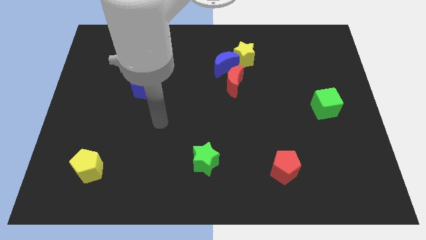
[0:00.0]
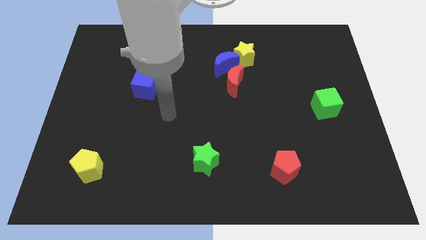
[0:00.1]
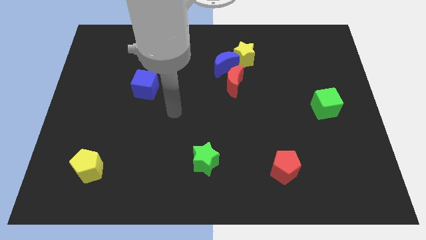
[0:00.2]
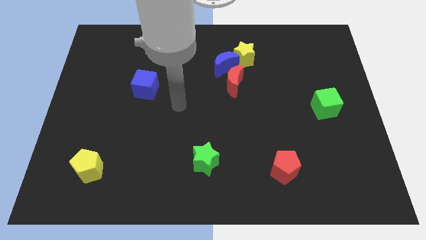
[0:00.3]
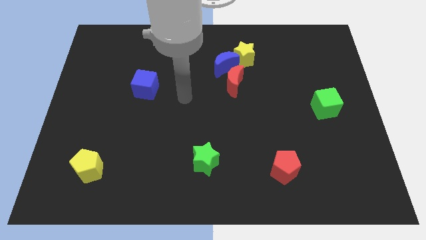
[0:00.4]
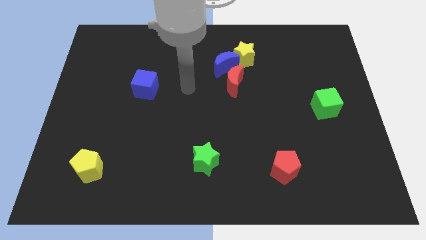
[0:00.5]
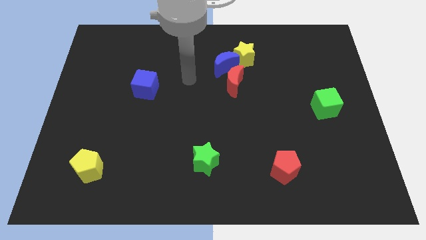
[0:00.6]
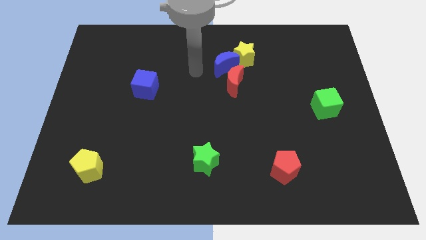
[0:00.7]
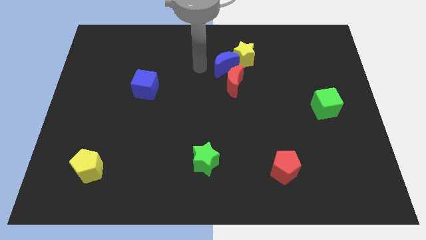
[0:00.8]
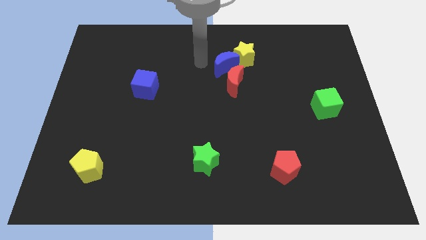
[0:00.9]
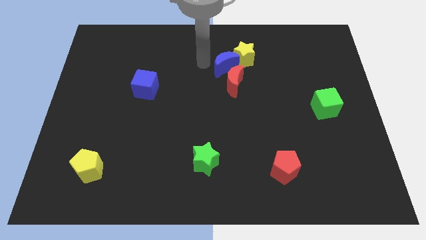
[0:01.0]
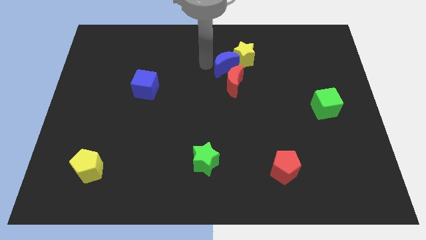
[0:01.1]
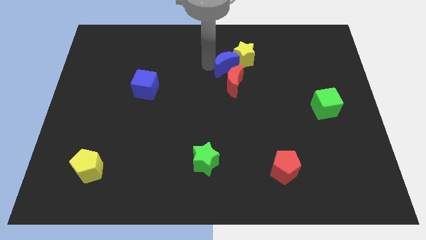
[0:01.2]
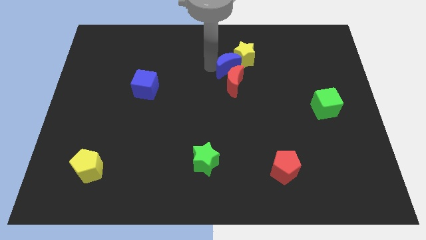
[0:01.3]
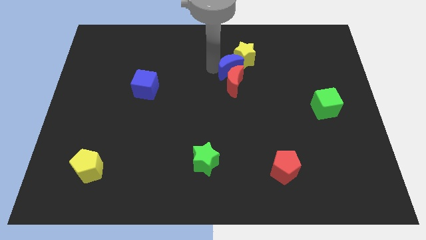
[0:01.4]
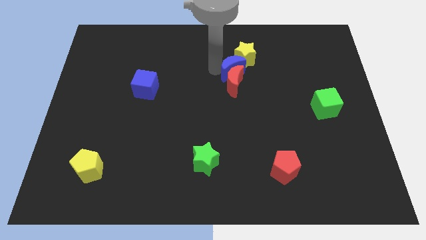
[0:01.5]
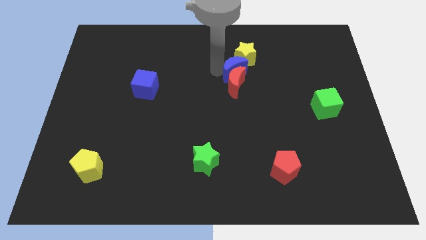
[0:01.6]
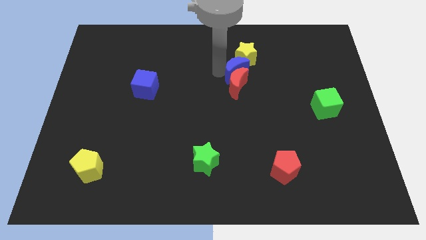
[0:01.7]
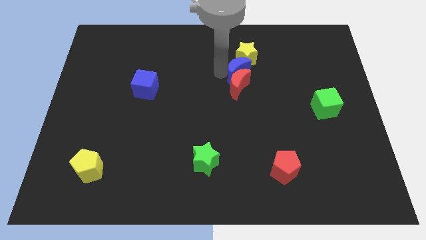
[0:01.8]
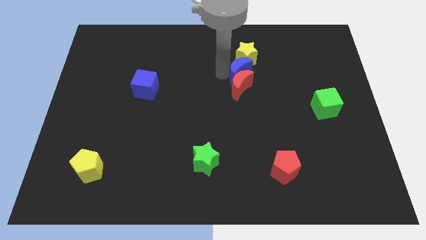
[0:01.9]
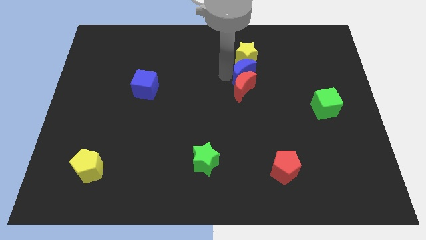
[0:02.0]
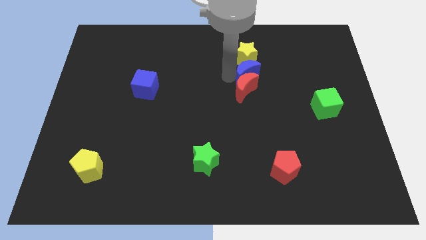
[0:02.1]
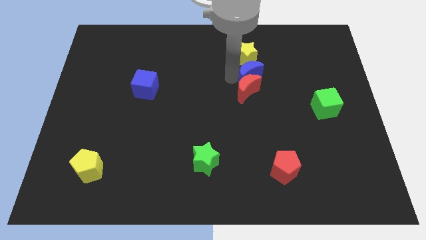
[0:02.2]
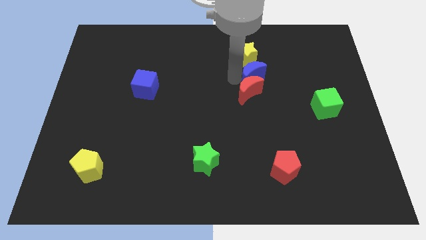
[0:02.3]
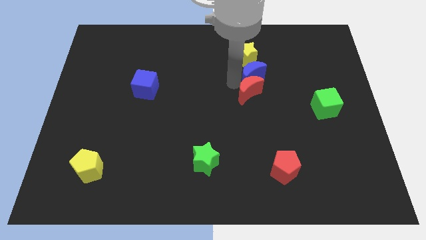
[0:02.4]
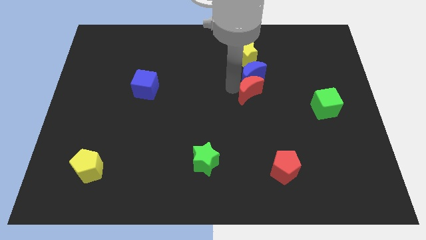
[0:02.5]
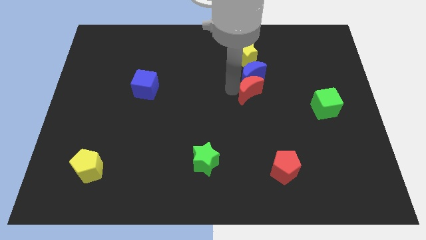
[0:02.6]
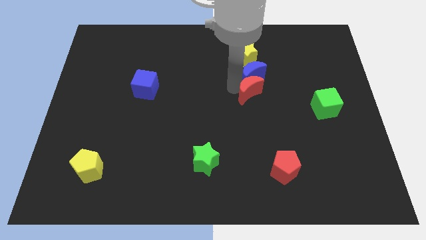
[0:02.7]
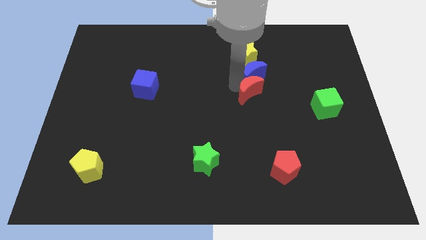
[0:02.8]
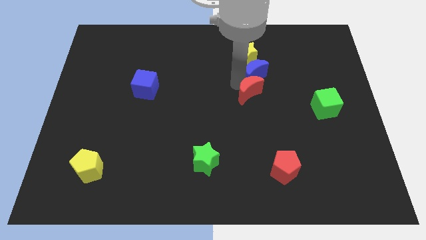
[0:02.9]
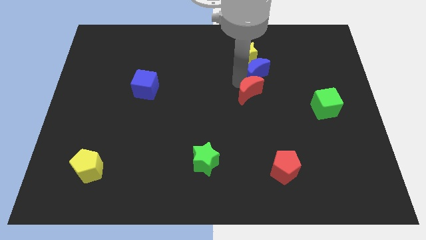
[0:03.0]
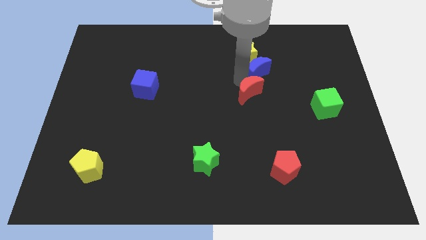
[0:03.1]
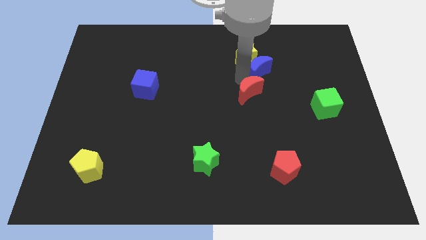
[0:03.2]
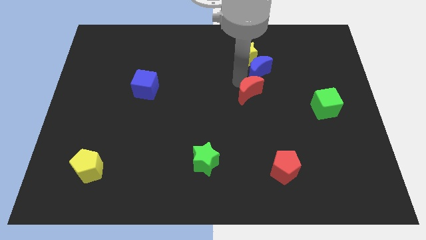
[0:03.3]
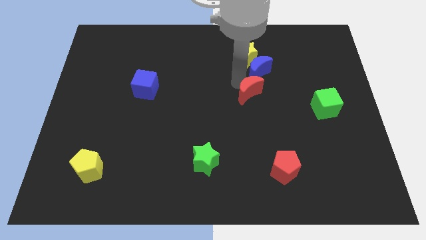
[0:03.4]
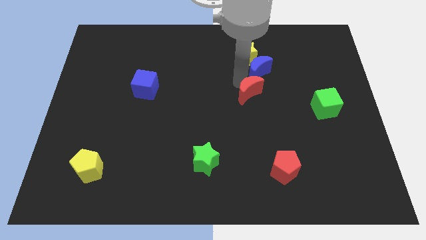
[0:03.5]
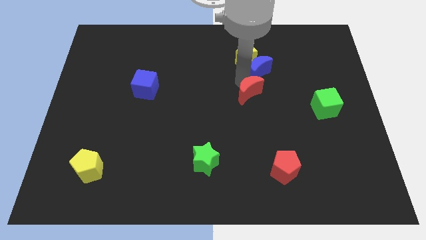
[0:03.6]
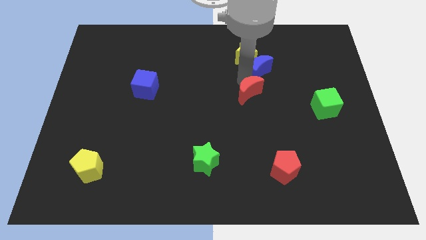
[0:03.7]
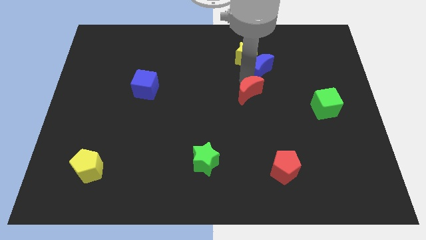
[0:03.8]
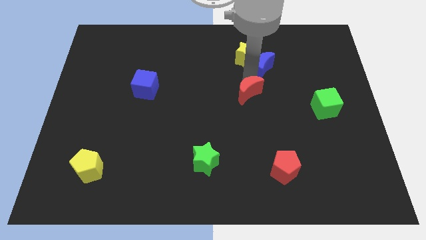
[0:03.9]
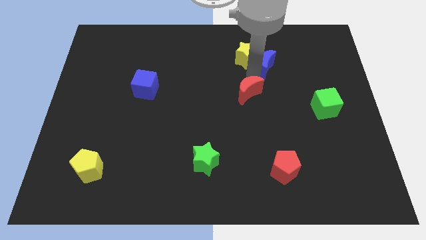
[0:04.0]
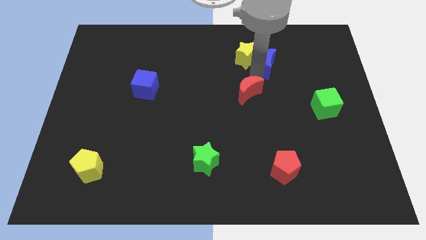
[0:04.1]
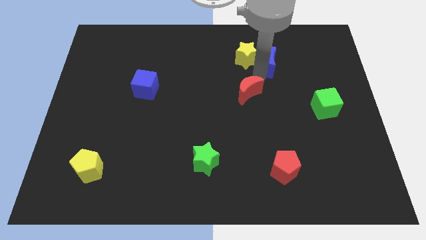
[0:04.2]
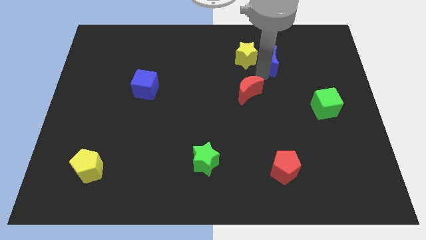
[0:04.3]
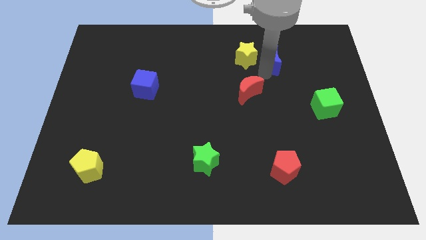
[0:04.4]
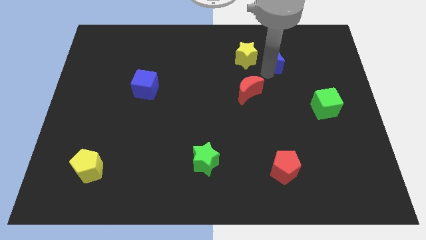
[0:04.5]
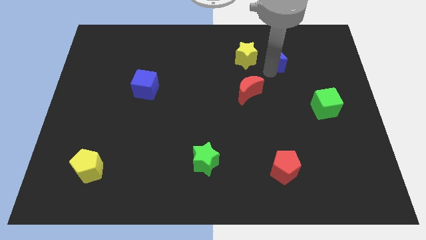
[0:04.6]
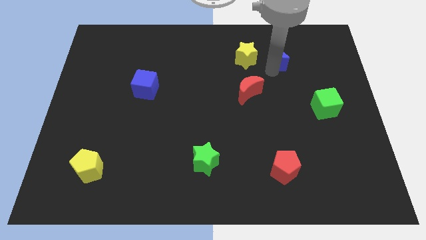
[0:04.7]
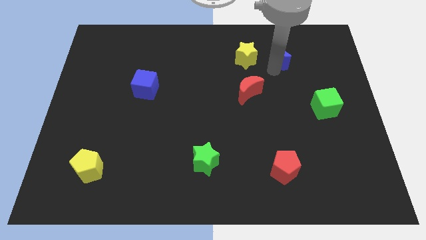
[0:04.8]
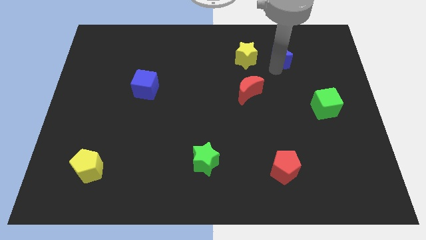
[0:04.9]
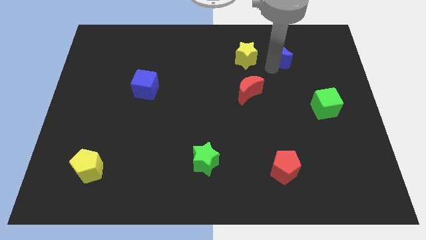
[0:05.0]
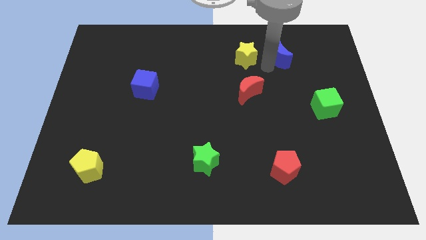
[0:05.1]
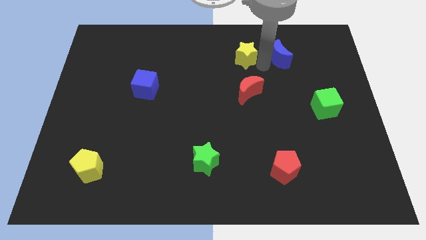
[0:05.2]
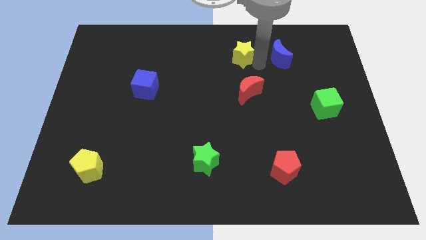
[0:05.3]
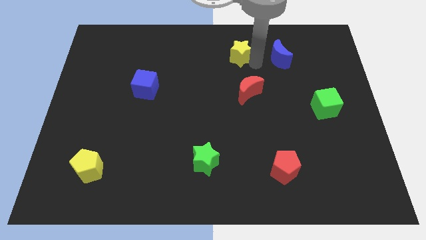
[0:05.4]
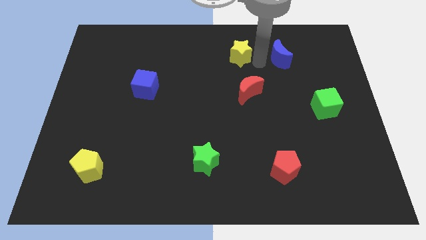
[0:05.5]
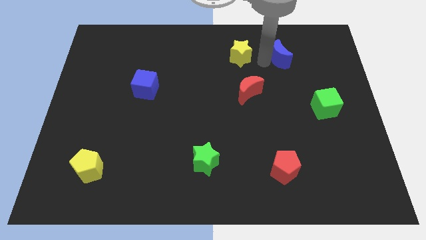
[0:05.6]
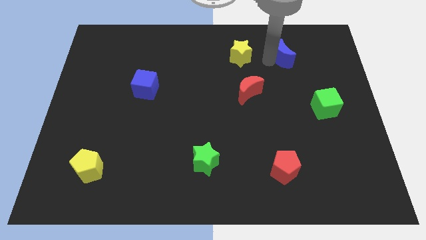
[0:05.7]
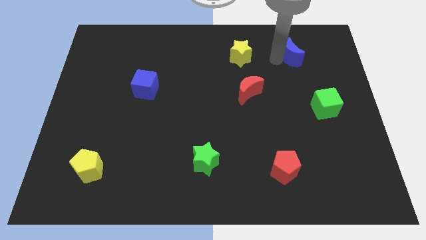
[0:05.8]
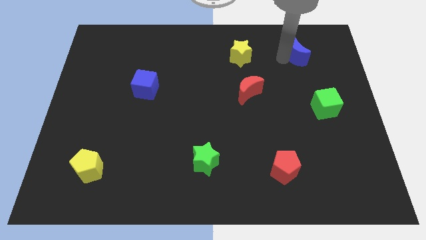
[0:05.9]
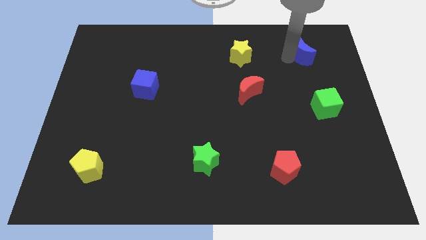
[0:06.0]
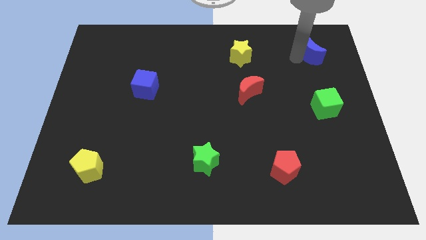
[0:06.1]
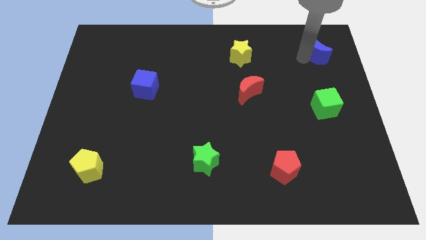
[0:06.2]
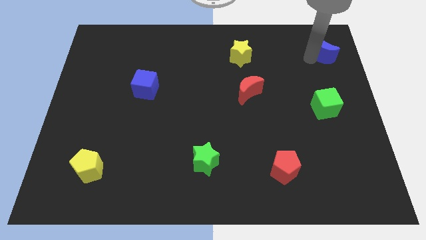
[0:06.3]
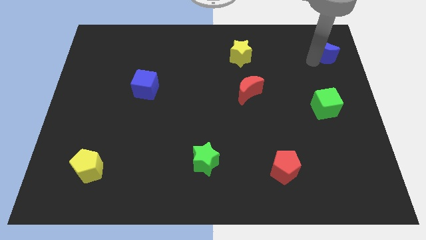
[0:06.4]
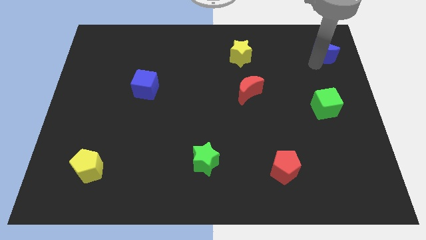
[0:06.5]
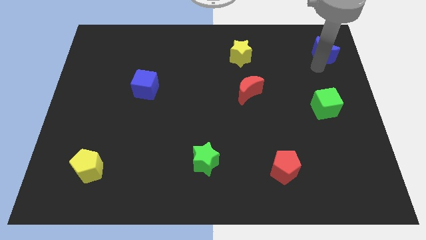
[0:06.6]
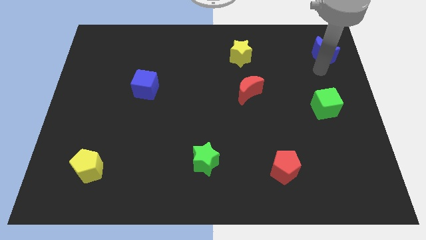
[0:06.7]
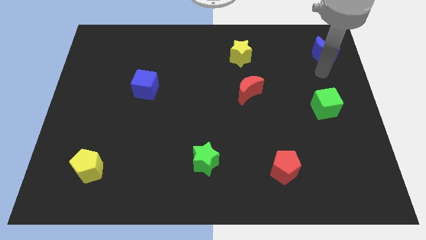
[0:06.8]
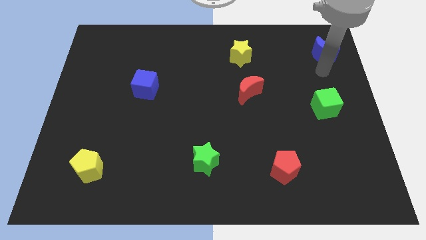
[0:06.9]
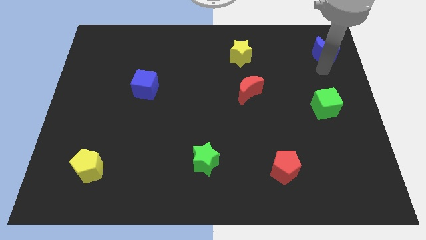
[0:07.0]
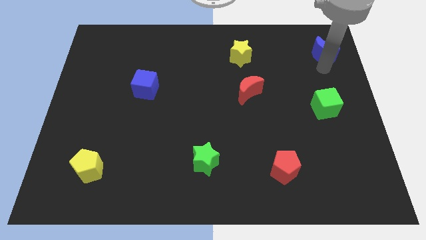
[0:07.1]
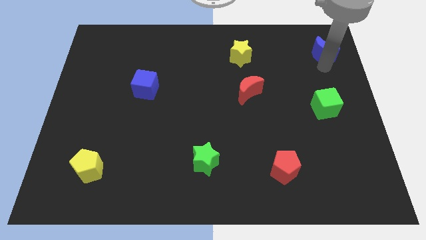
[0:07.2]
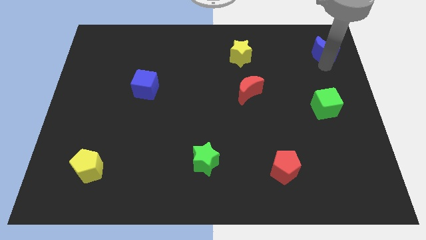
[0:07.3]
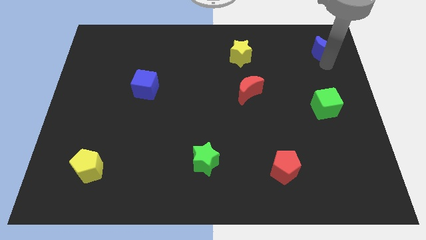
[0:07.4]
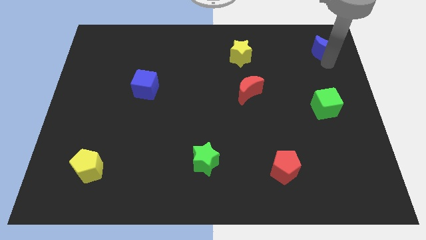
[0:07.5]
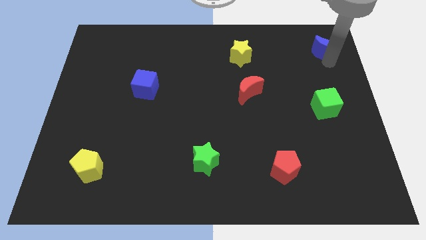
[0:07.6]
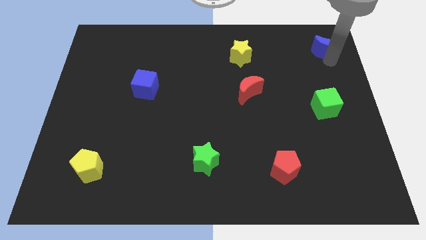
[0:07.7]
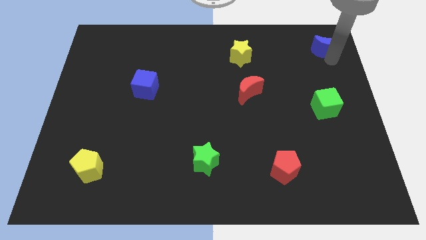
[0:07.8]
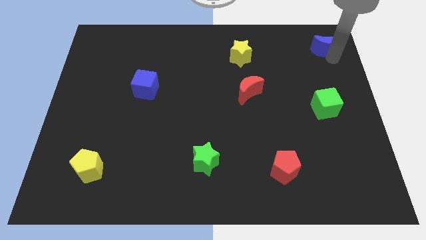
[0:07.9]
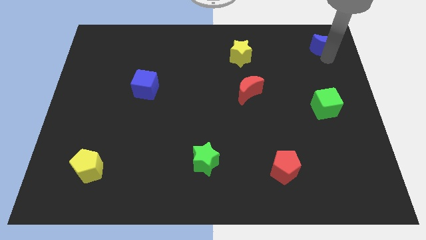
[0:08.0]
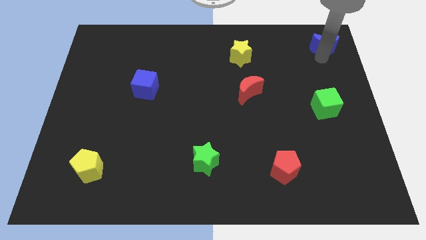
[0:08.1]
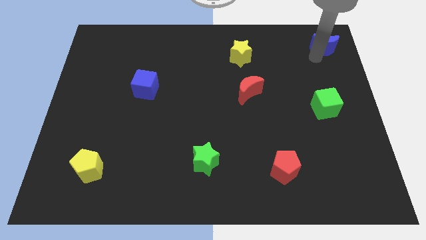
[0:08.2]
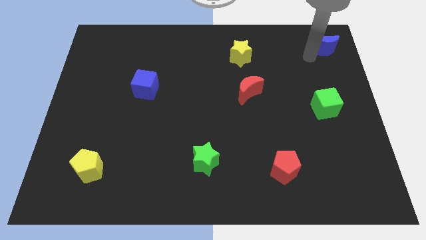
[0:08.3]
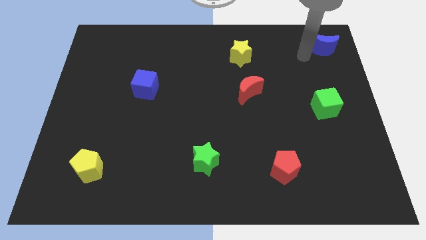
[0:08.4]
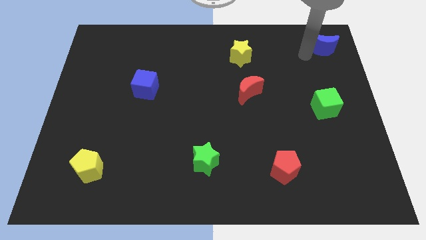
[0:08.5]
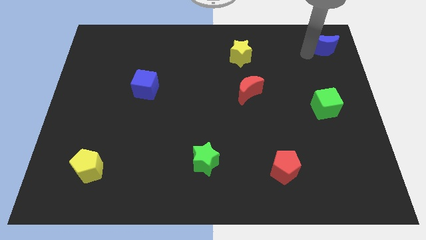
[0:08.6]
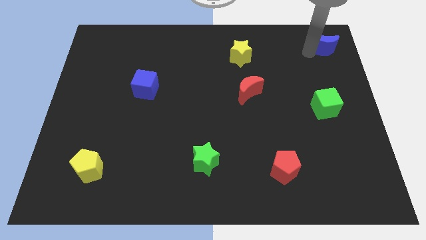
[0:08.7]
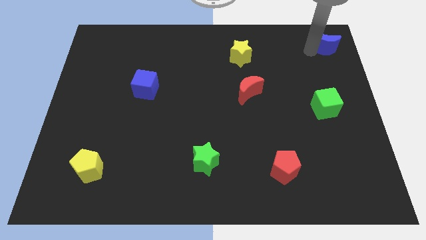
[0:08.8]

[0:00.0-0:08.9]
put the blue moon to the upper right corner
